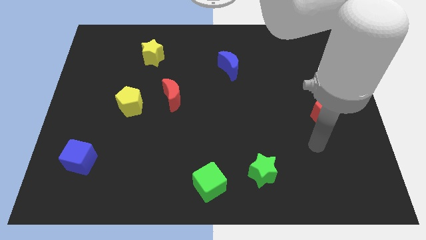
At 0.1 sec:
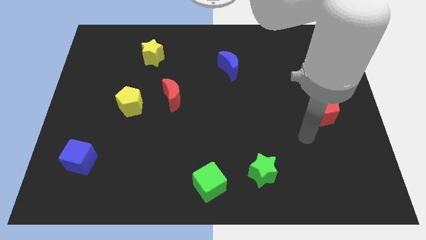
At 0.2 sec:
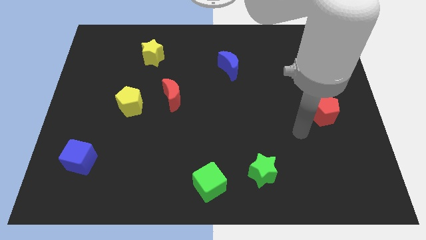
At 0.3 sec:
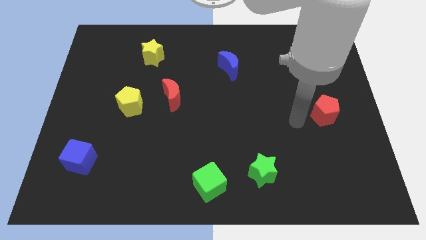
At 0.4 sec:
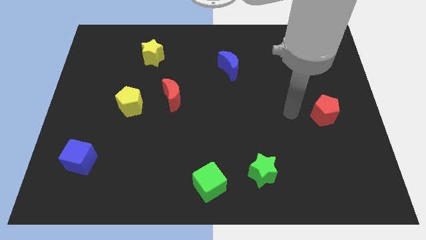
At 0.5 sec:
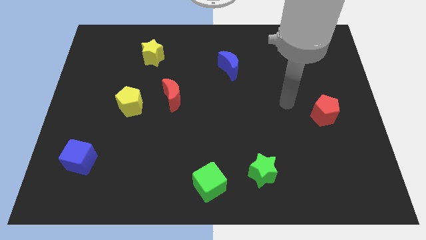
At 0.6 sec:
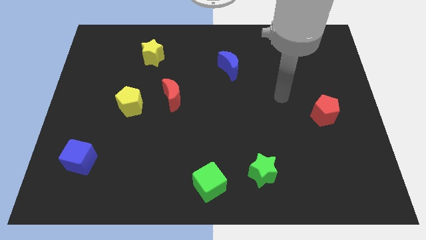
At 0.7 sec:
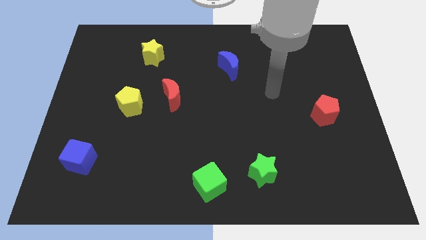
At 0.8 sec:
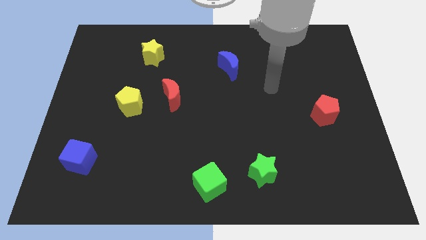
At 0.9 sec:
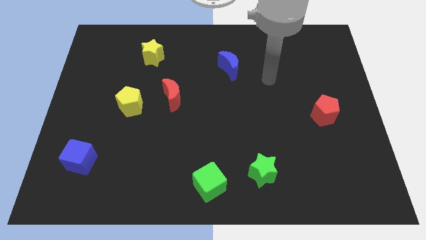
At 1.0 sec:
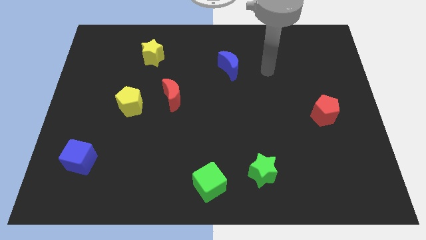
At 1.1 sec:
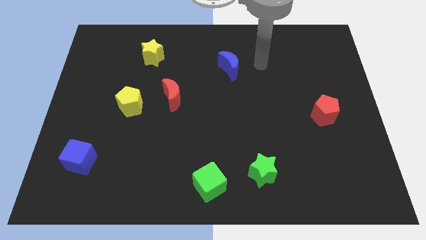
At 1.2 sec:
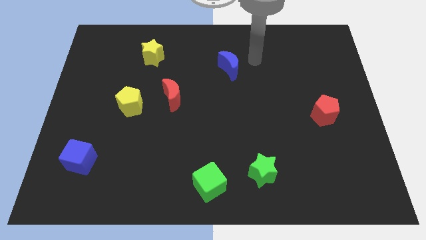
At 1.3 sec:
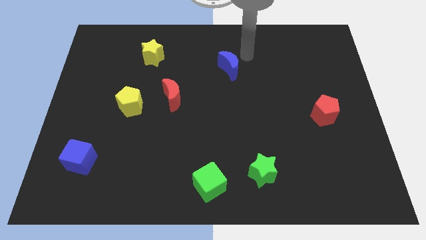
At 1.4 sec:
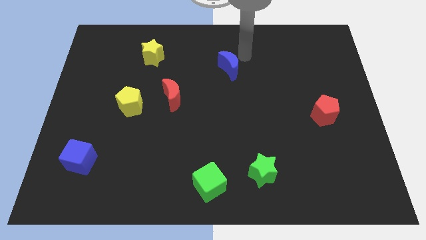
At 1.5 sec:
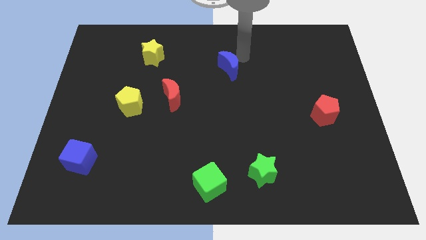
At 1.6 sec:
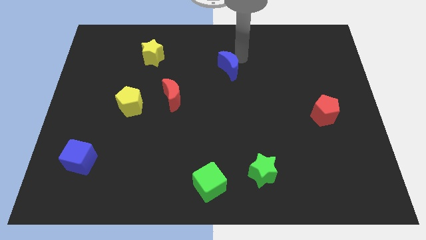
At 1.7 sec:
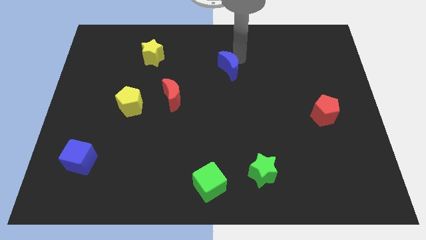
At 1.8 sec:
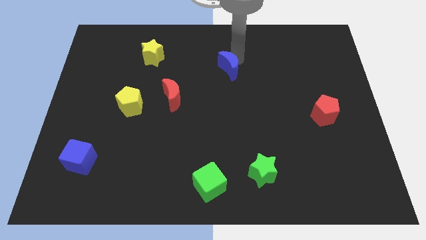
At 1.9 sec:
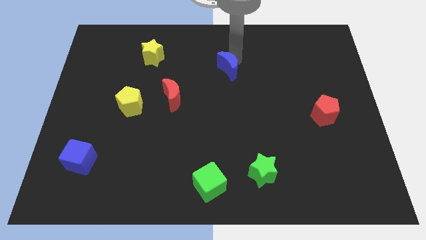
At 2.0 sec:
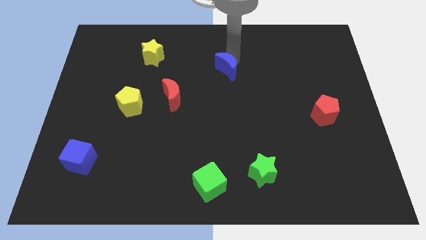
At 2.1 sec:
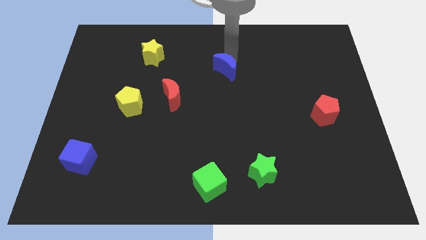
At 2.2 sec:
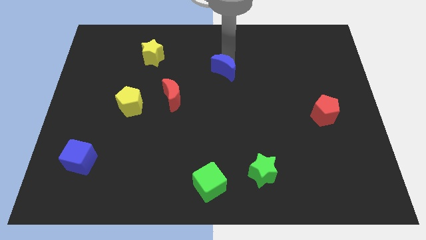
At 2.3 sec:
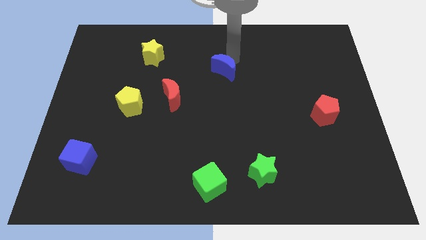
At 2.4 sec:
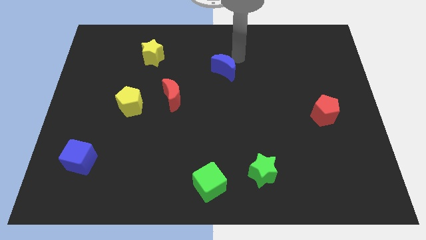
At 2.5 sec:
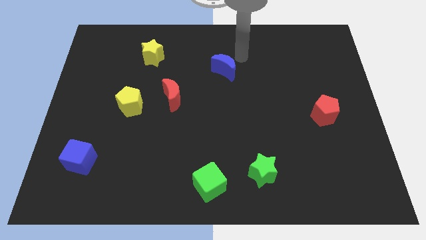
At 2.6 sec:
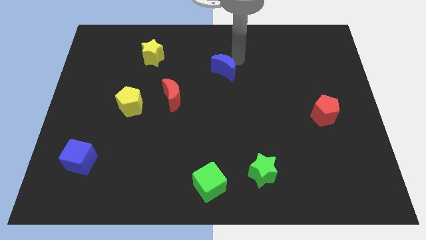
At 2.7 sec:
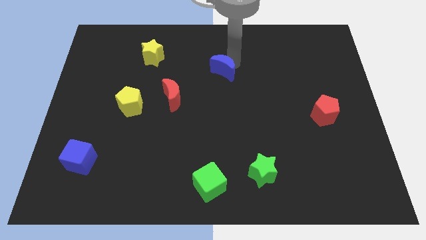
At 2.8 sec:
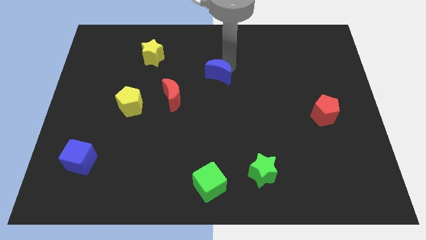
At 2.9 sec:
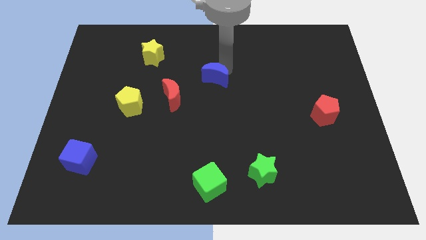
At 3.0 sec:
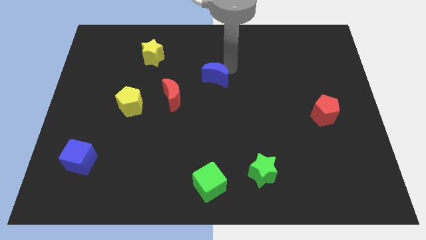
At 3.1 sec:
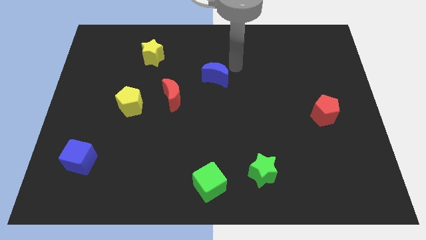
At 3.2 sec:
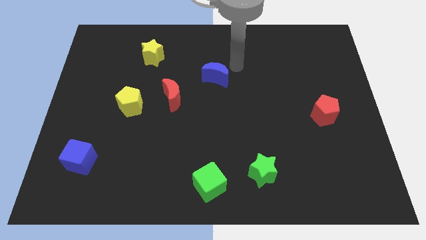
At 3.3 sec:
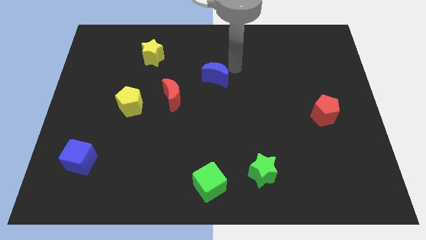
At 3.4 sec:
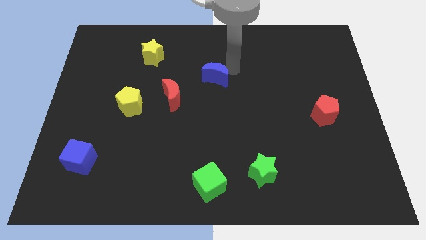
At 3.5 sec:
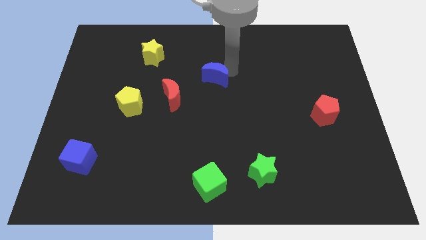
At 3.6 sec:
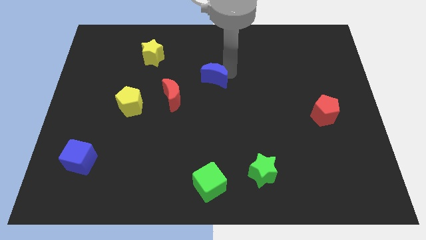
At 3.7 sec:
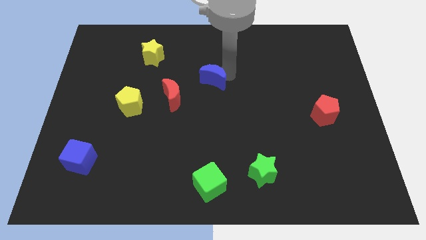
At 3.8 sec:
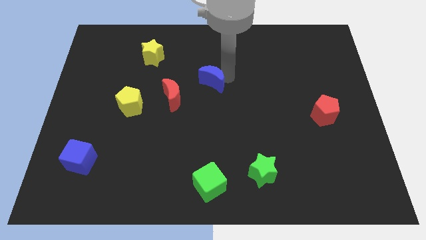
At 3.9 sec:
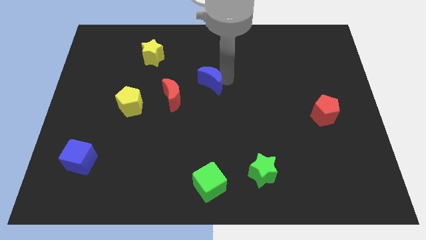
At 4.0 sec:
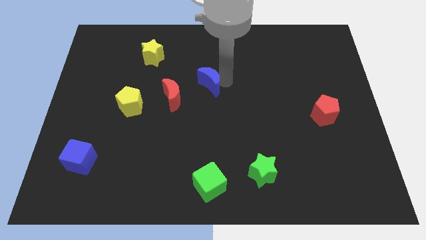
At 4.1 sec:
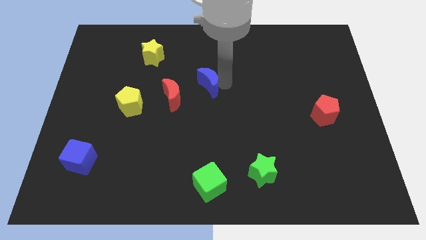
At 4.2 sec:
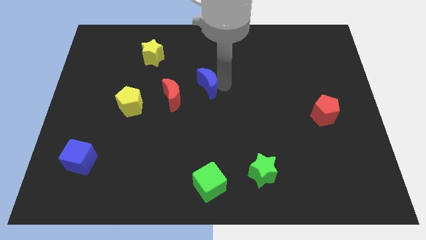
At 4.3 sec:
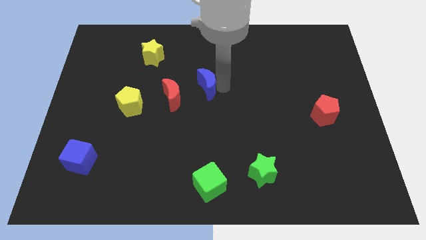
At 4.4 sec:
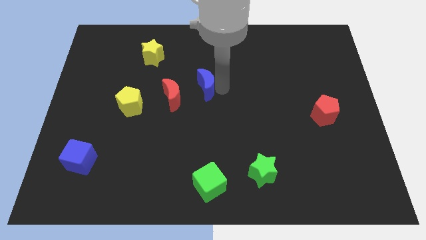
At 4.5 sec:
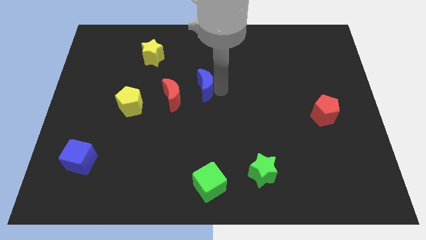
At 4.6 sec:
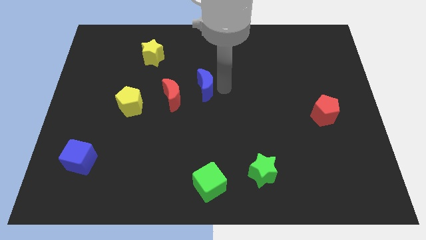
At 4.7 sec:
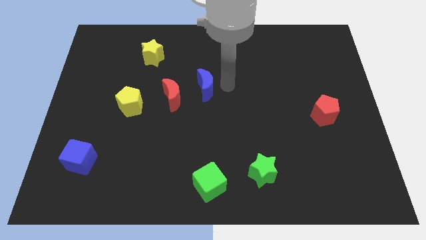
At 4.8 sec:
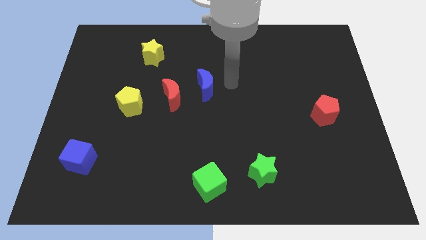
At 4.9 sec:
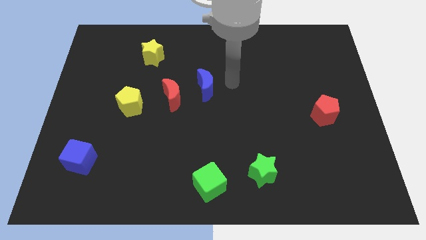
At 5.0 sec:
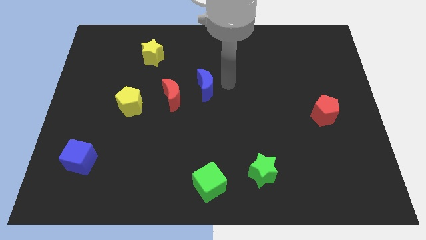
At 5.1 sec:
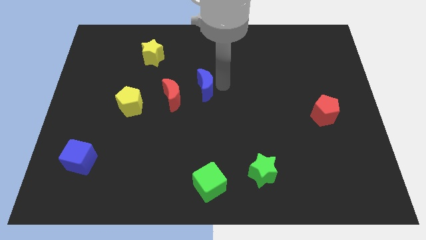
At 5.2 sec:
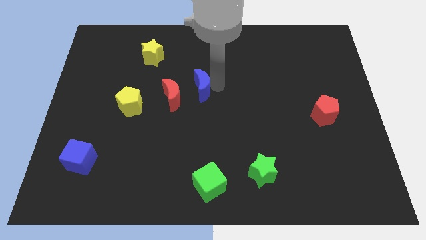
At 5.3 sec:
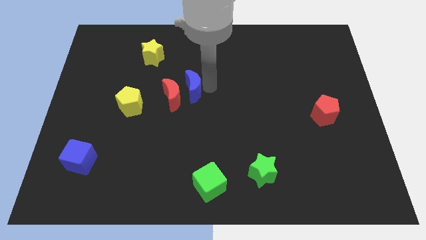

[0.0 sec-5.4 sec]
push the blue moon close to the red moon

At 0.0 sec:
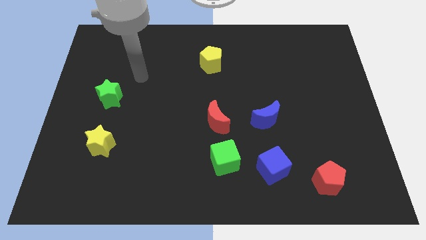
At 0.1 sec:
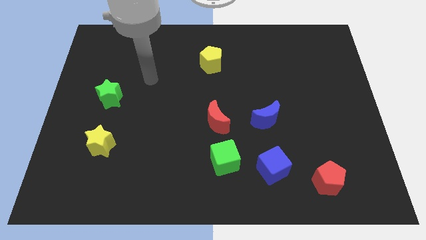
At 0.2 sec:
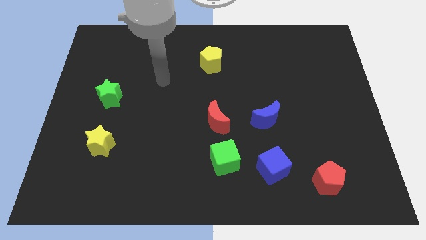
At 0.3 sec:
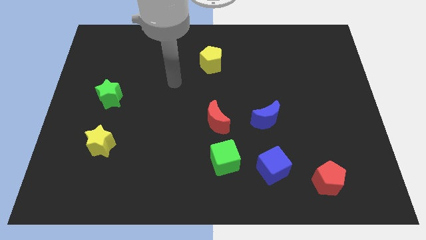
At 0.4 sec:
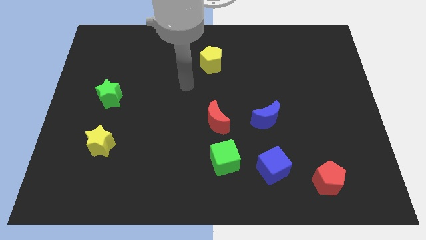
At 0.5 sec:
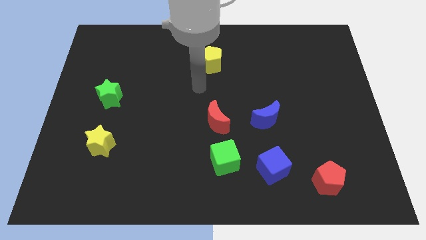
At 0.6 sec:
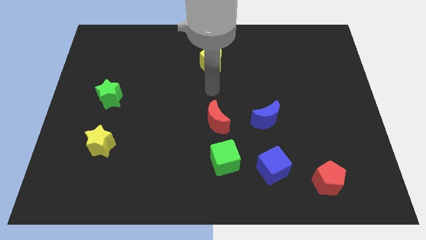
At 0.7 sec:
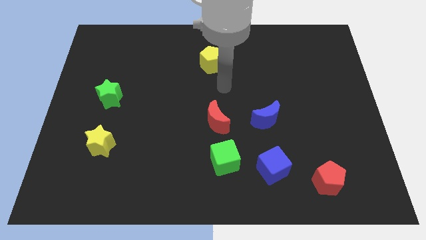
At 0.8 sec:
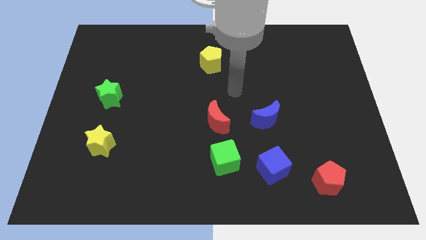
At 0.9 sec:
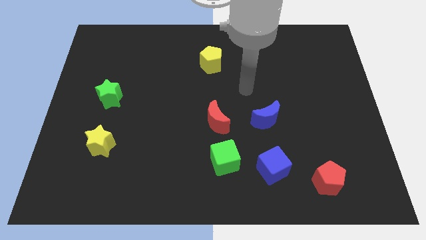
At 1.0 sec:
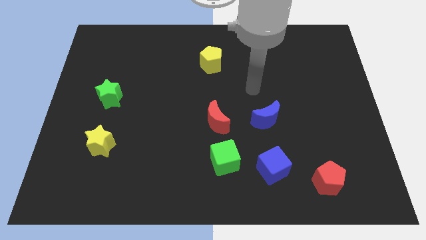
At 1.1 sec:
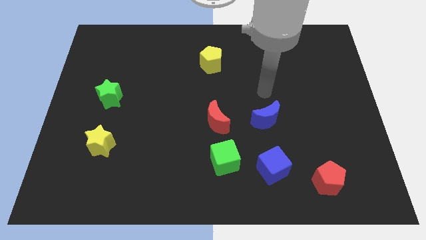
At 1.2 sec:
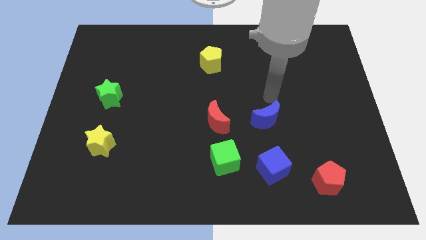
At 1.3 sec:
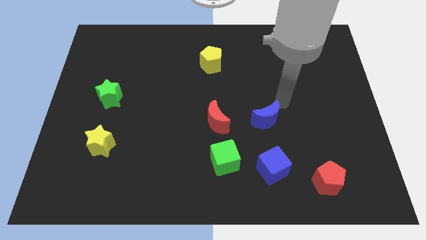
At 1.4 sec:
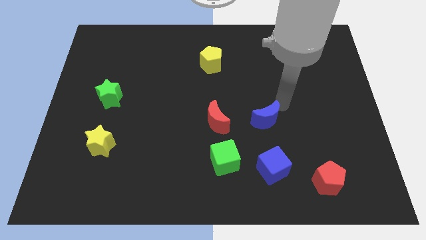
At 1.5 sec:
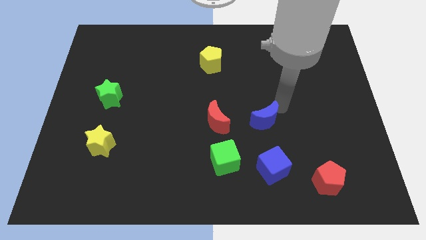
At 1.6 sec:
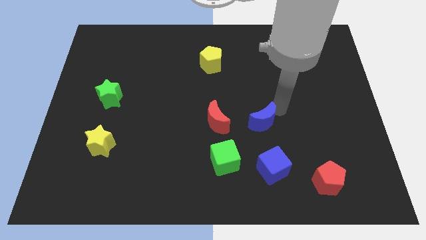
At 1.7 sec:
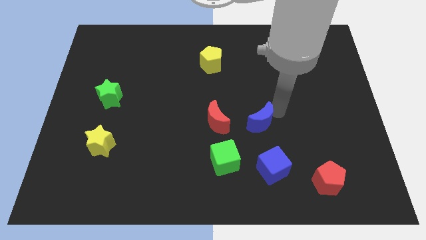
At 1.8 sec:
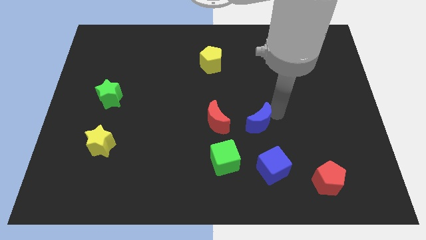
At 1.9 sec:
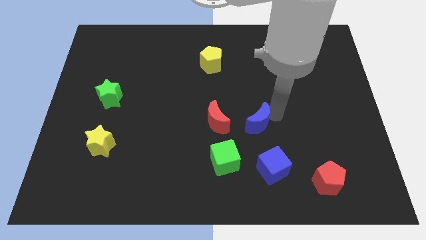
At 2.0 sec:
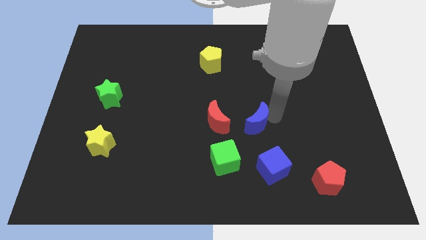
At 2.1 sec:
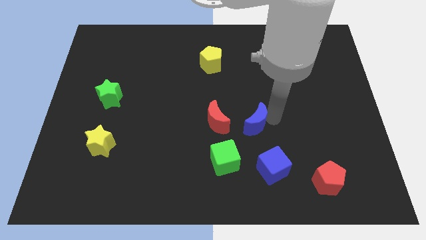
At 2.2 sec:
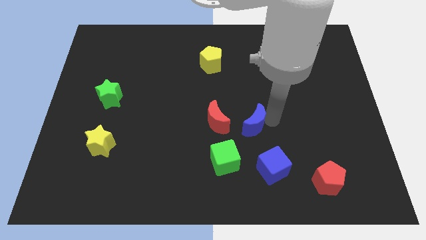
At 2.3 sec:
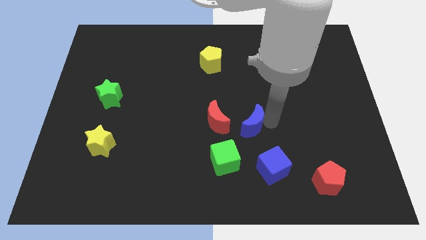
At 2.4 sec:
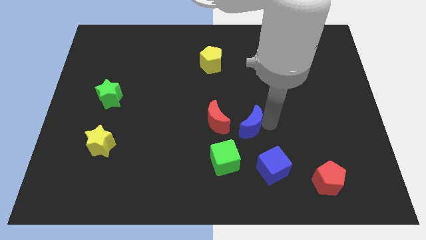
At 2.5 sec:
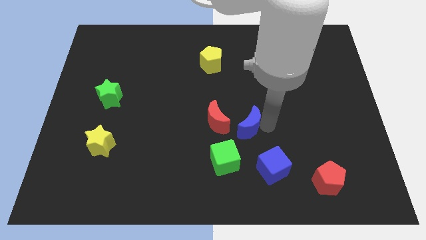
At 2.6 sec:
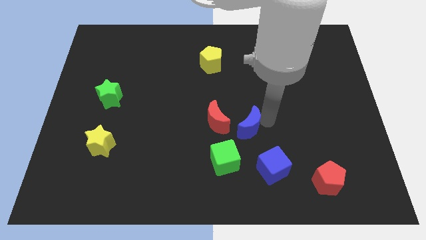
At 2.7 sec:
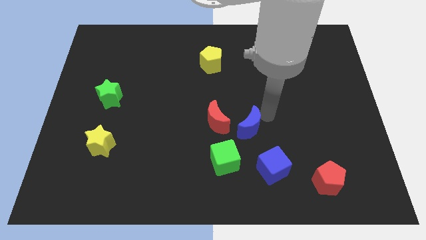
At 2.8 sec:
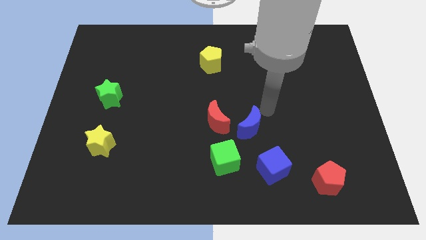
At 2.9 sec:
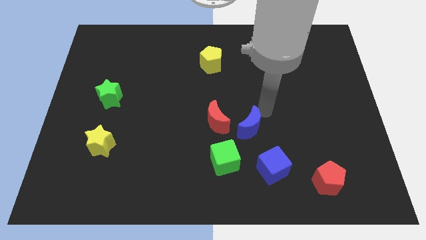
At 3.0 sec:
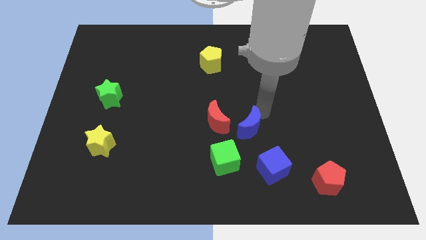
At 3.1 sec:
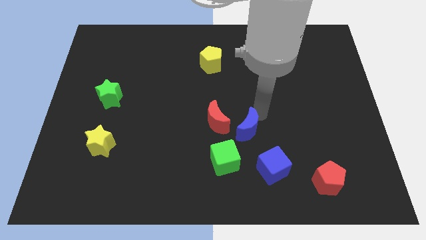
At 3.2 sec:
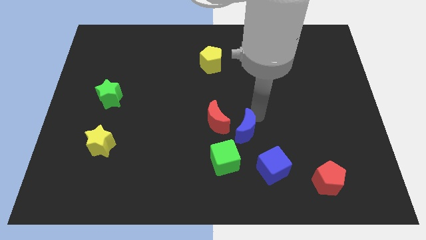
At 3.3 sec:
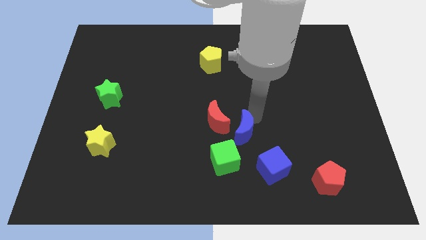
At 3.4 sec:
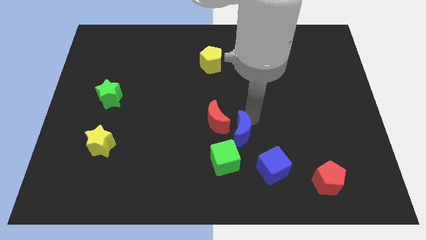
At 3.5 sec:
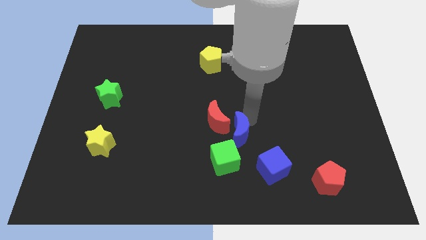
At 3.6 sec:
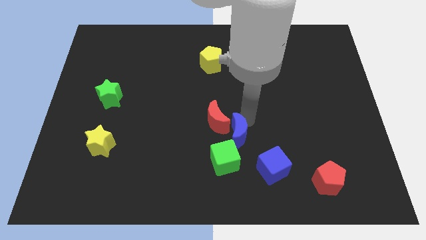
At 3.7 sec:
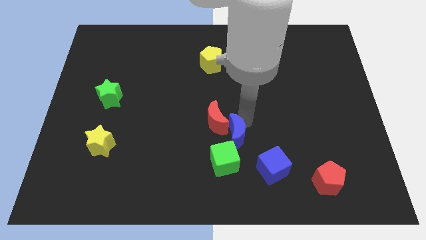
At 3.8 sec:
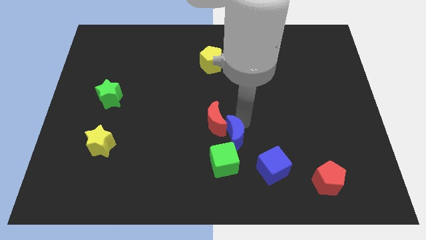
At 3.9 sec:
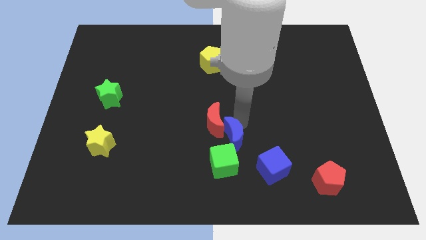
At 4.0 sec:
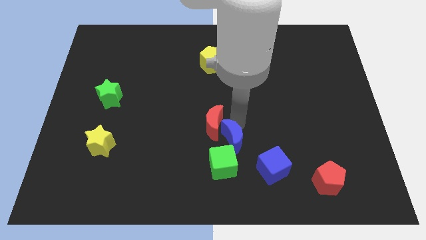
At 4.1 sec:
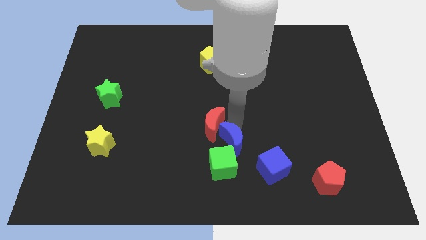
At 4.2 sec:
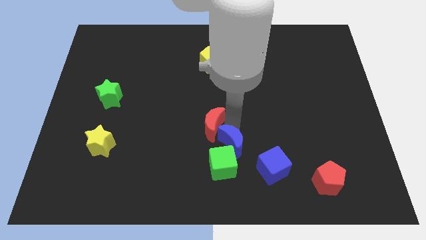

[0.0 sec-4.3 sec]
move the blue moon close to the green cube
